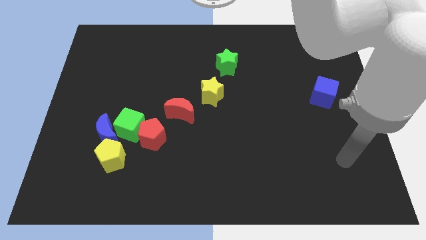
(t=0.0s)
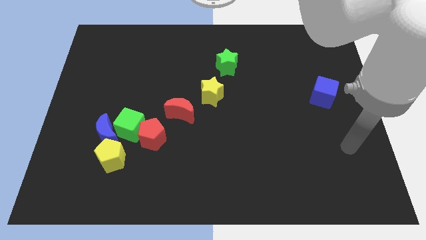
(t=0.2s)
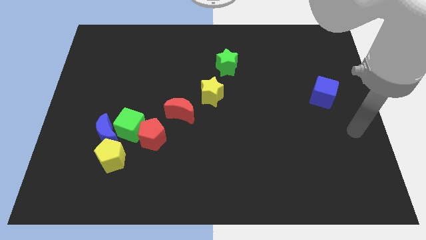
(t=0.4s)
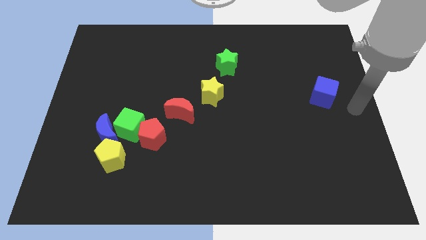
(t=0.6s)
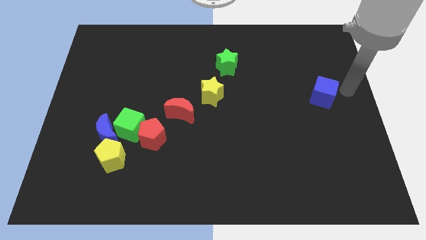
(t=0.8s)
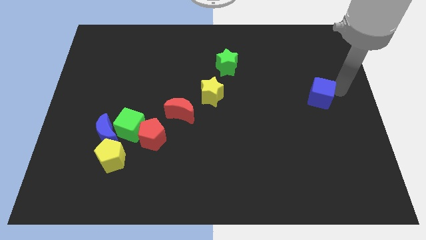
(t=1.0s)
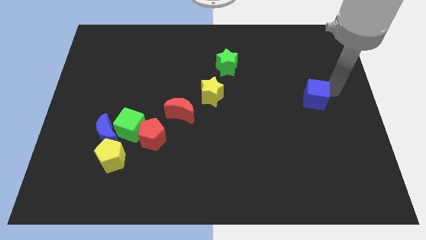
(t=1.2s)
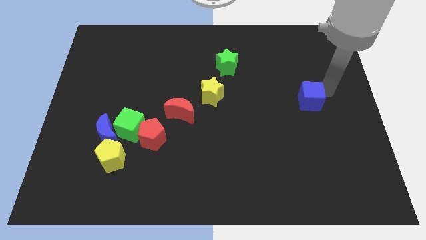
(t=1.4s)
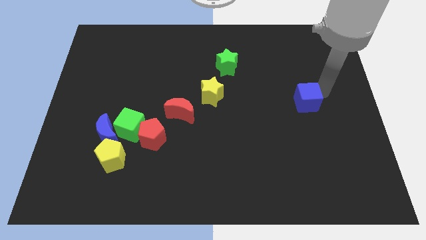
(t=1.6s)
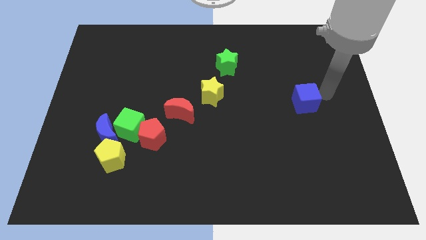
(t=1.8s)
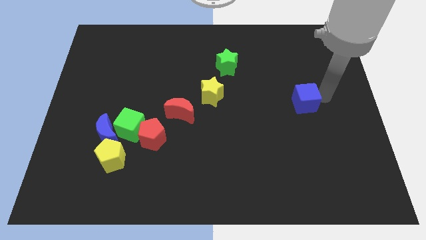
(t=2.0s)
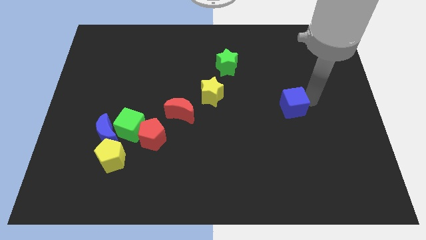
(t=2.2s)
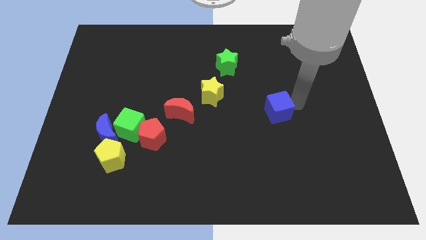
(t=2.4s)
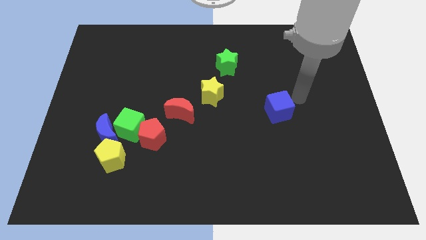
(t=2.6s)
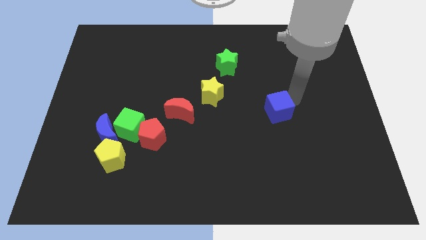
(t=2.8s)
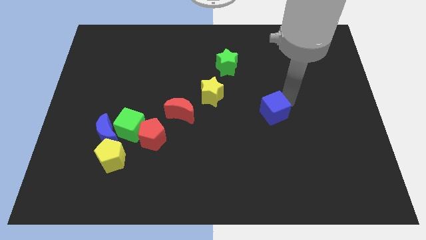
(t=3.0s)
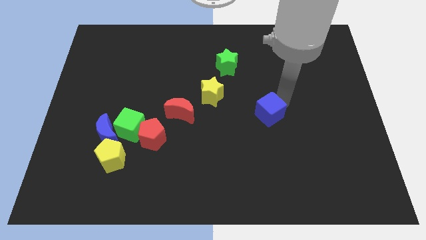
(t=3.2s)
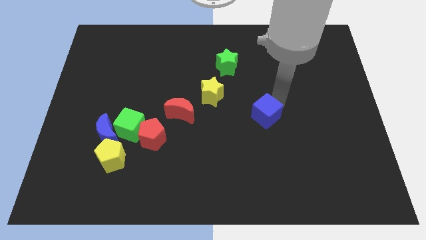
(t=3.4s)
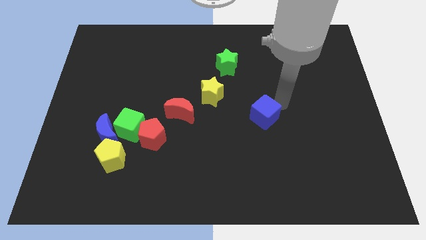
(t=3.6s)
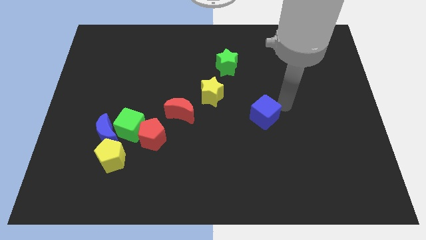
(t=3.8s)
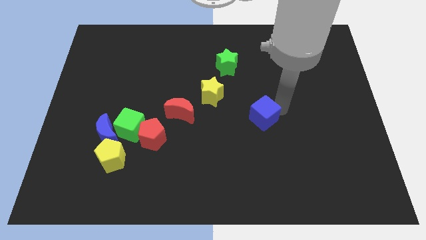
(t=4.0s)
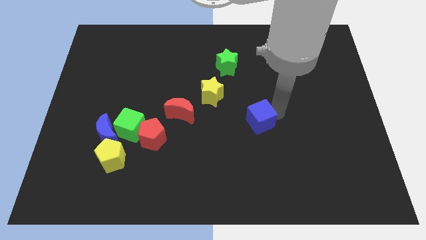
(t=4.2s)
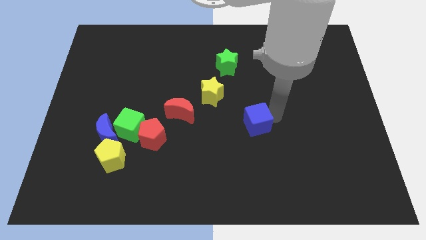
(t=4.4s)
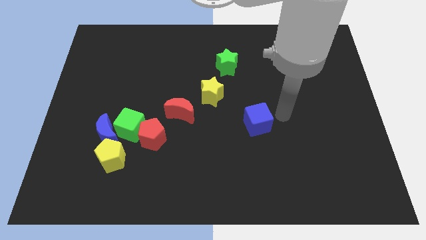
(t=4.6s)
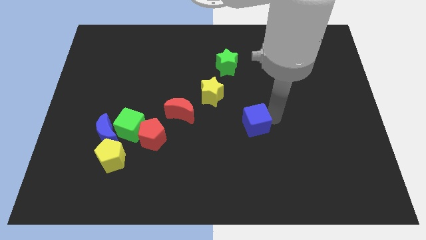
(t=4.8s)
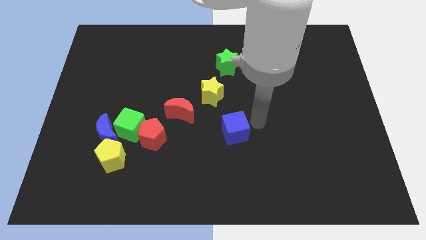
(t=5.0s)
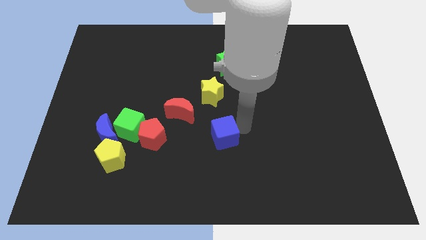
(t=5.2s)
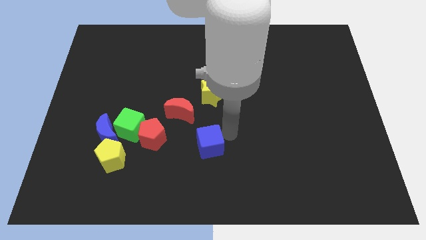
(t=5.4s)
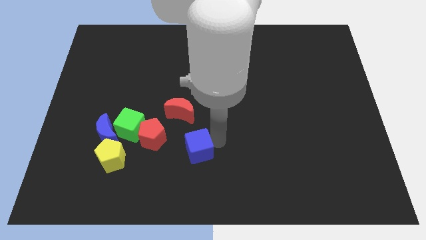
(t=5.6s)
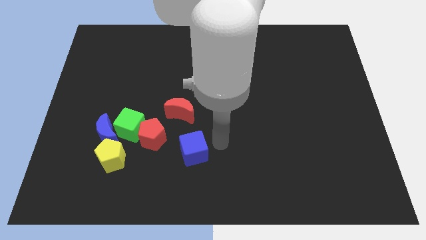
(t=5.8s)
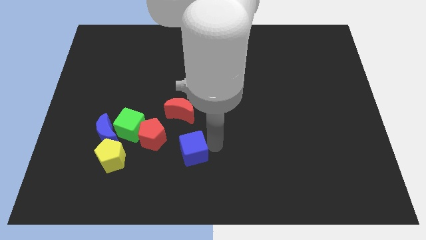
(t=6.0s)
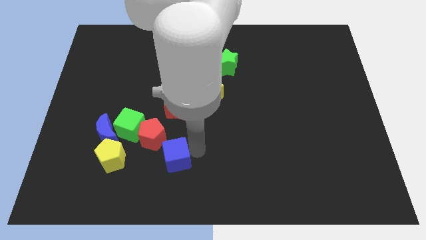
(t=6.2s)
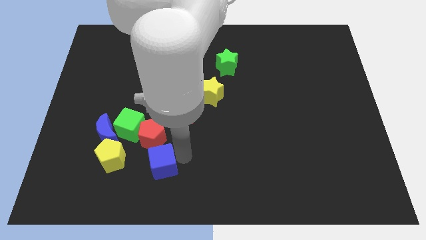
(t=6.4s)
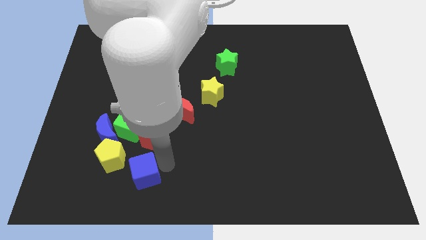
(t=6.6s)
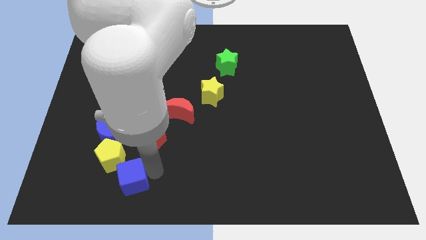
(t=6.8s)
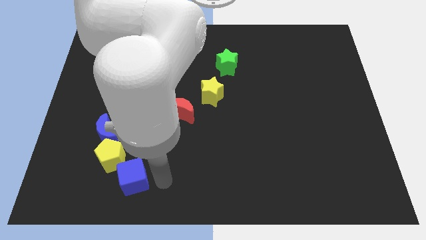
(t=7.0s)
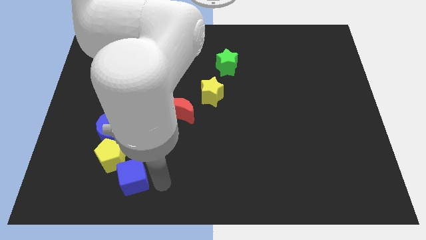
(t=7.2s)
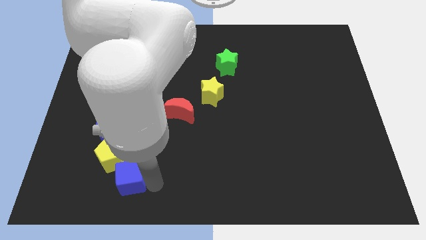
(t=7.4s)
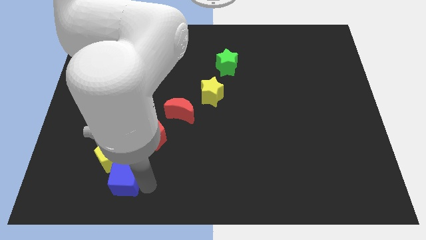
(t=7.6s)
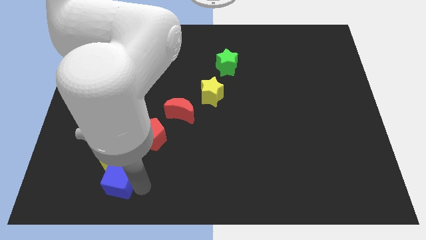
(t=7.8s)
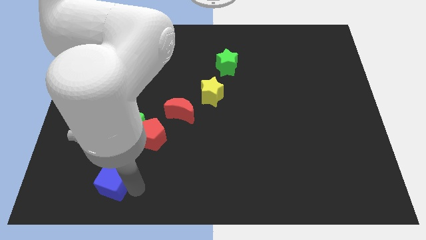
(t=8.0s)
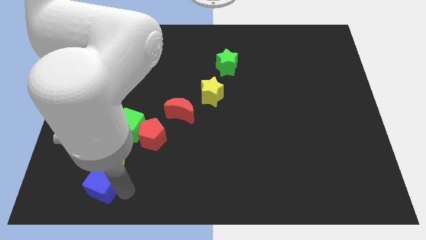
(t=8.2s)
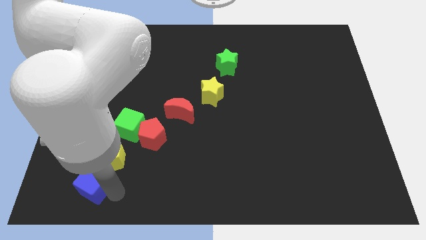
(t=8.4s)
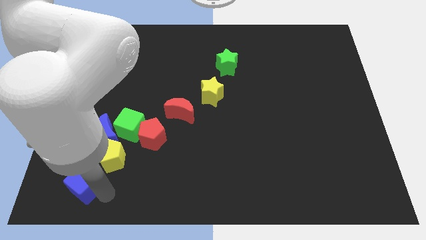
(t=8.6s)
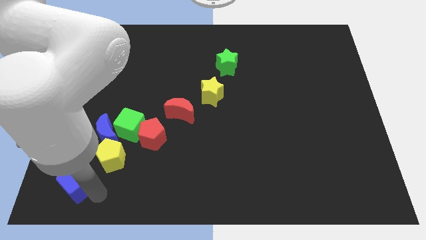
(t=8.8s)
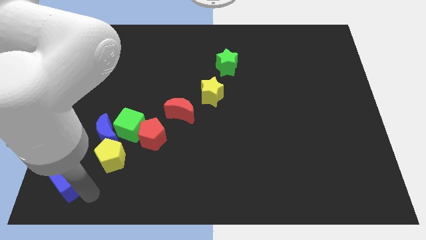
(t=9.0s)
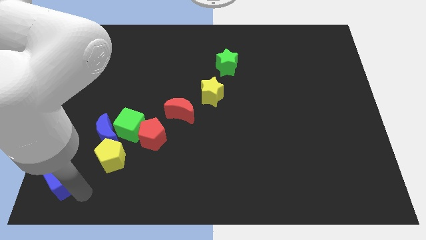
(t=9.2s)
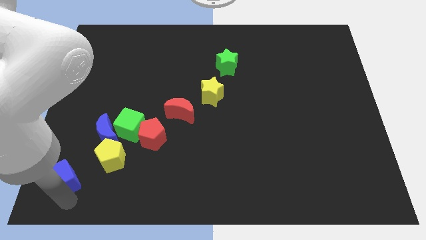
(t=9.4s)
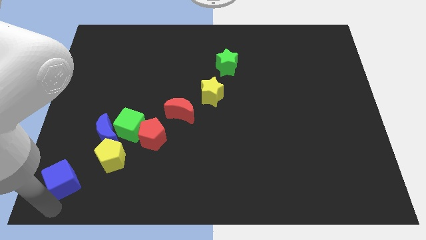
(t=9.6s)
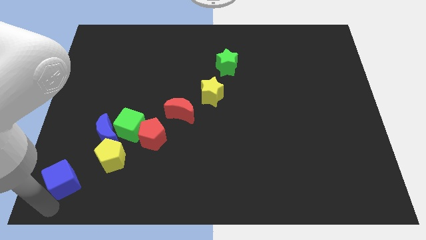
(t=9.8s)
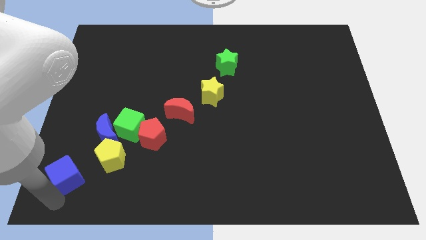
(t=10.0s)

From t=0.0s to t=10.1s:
move the blue cube diagonally down and to the left of the blue moon

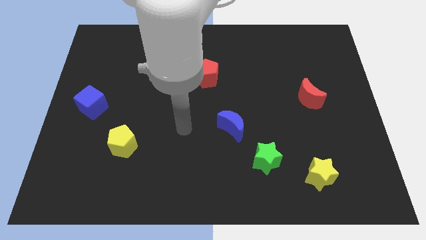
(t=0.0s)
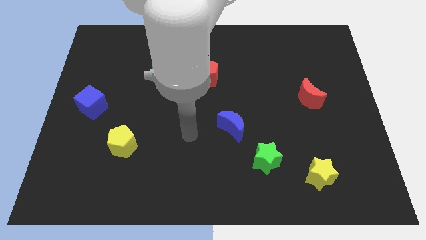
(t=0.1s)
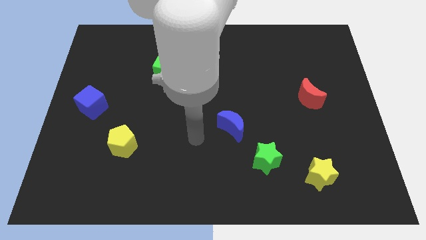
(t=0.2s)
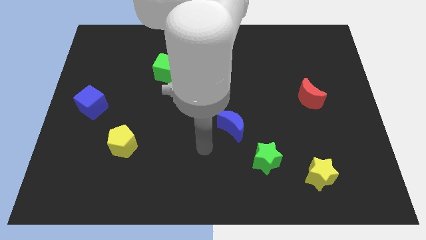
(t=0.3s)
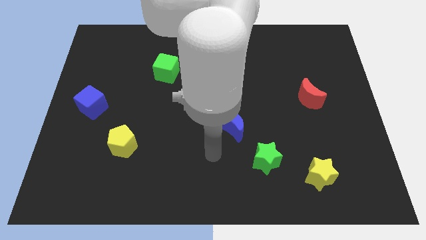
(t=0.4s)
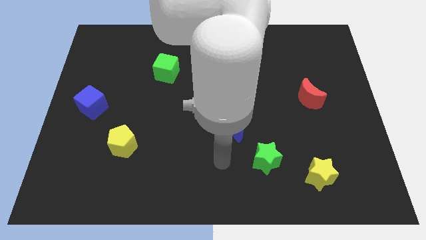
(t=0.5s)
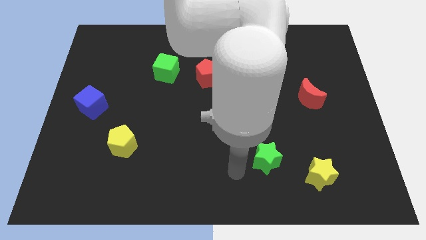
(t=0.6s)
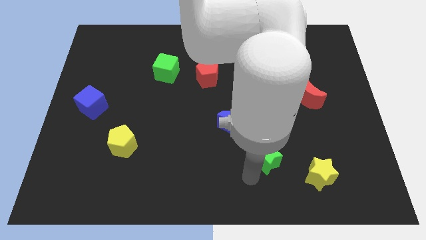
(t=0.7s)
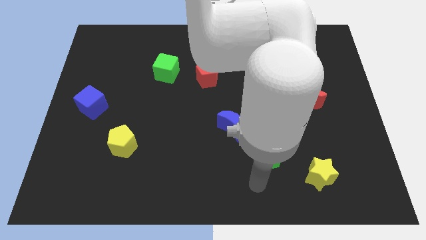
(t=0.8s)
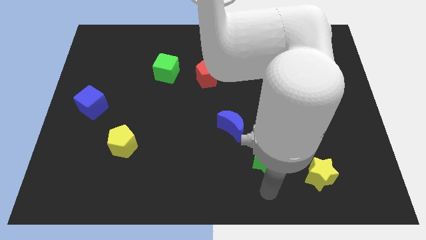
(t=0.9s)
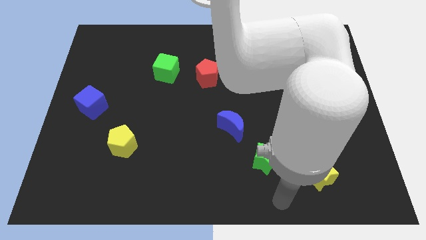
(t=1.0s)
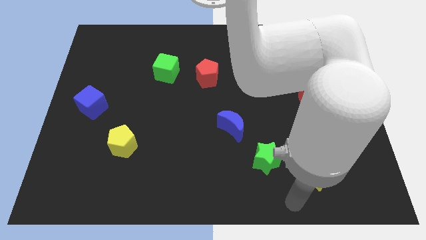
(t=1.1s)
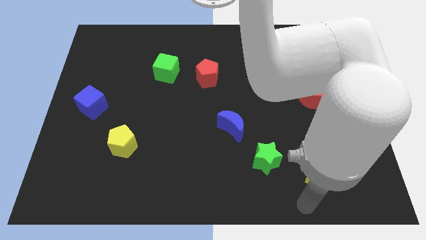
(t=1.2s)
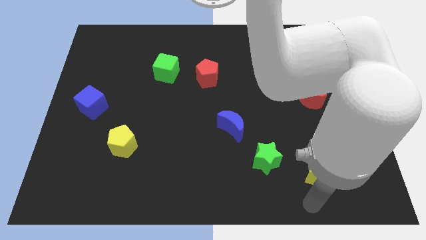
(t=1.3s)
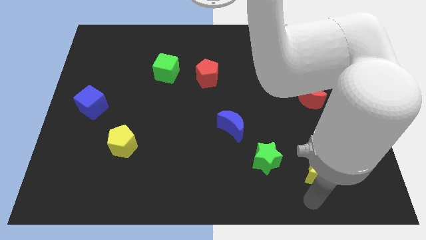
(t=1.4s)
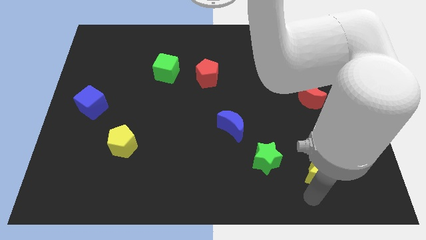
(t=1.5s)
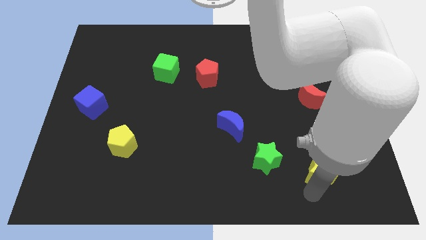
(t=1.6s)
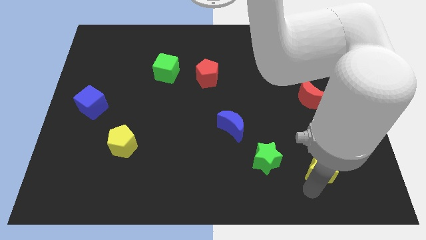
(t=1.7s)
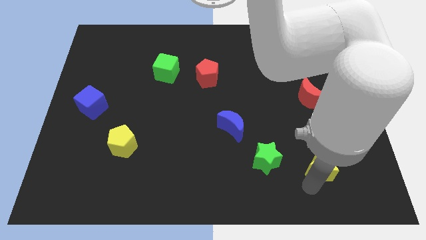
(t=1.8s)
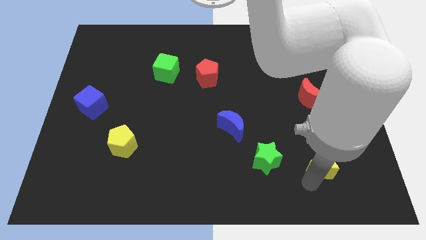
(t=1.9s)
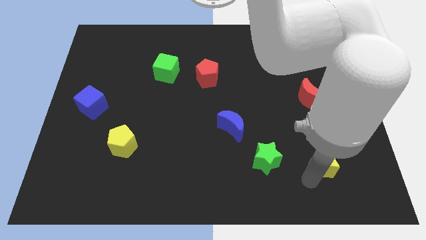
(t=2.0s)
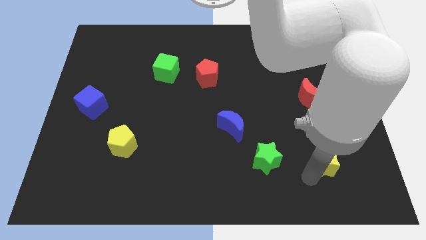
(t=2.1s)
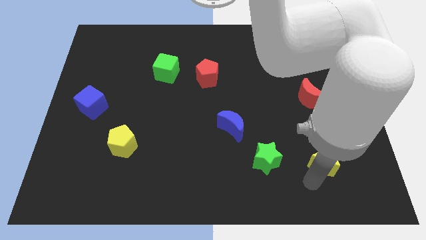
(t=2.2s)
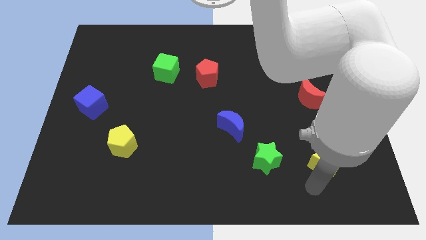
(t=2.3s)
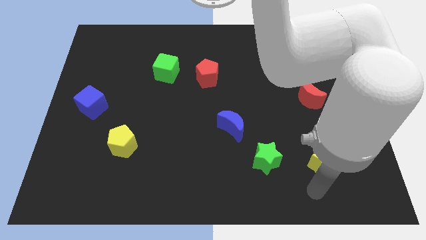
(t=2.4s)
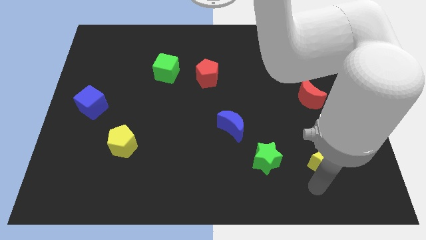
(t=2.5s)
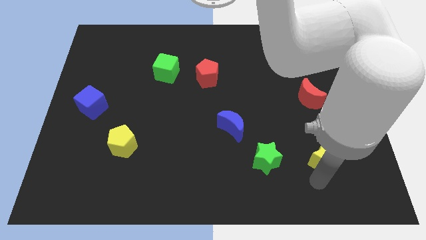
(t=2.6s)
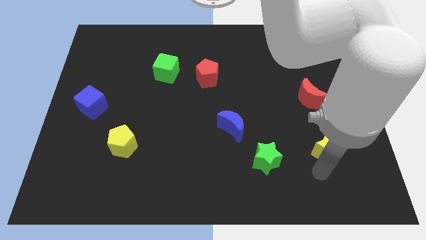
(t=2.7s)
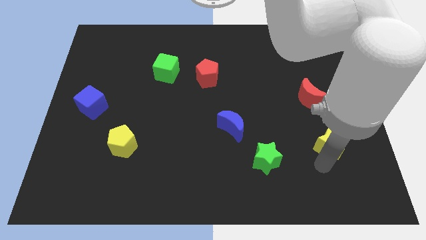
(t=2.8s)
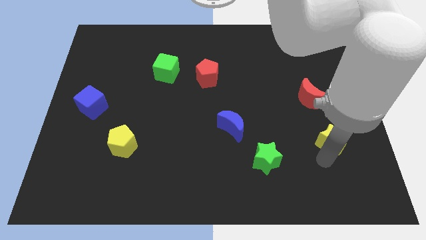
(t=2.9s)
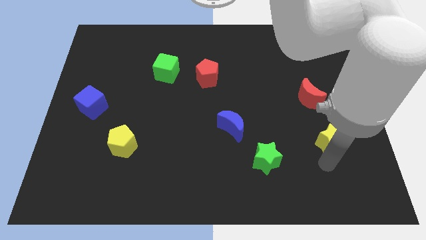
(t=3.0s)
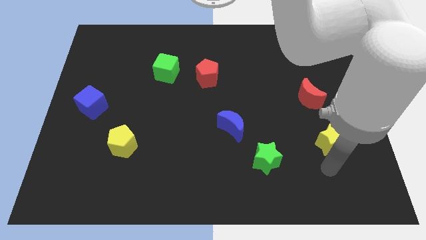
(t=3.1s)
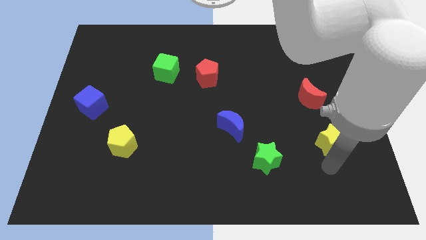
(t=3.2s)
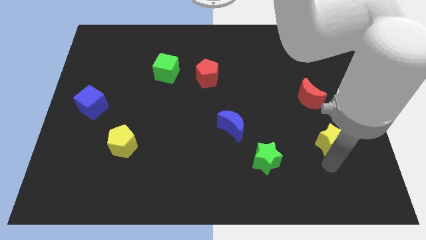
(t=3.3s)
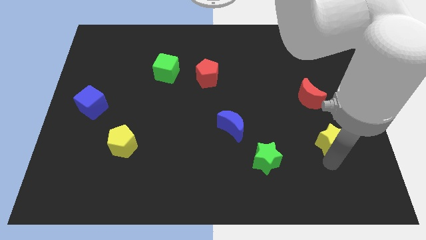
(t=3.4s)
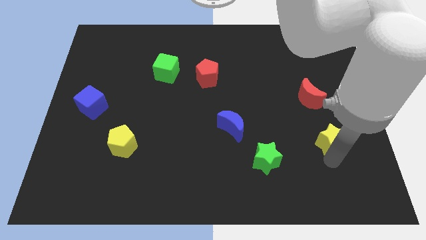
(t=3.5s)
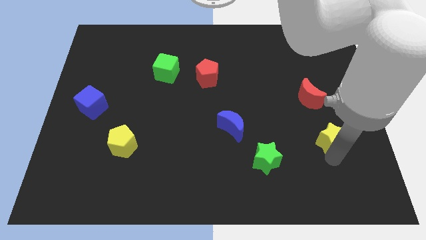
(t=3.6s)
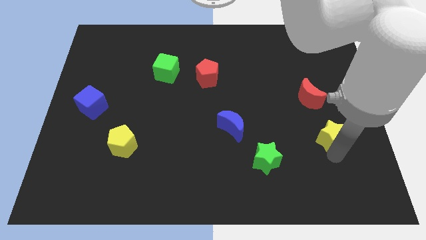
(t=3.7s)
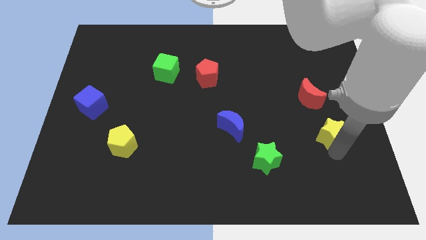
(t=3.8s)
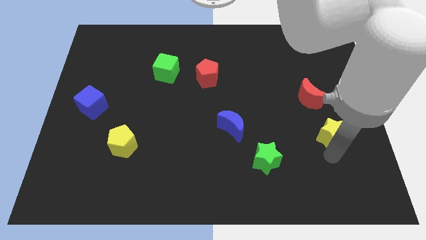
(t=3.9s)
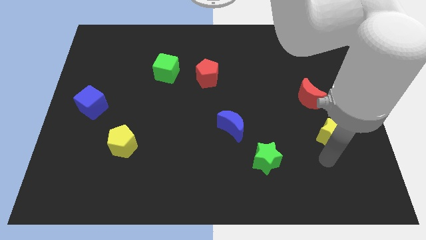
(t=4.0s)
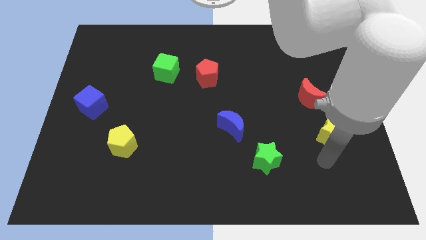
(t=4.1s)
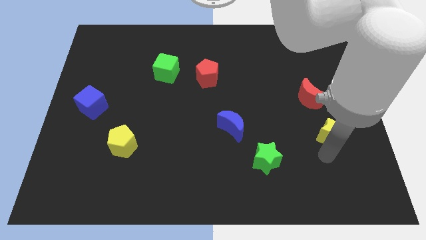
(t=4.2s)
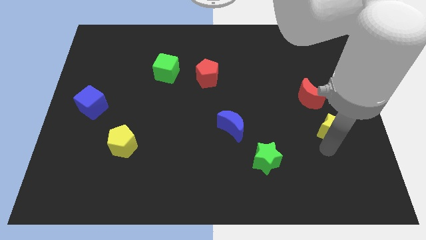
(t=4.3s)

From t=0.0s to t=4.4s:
push the yellow star to the bottom right of the red moon
